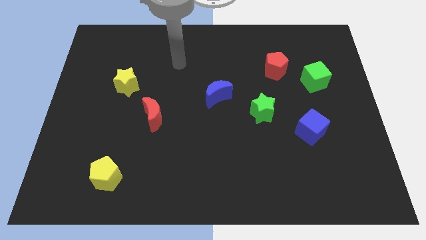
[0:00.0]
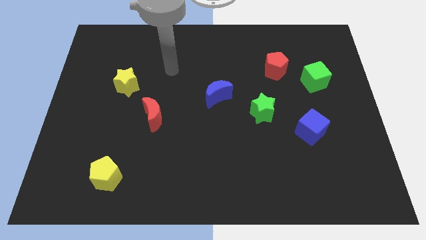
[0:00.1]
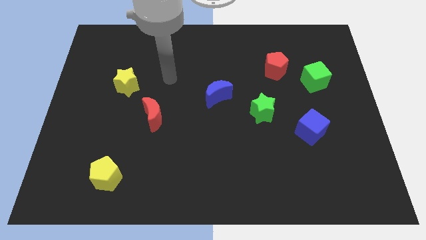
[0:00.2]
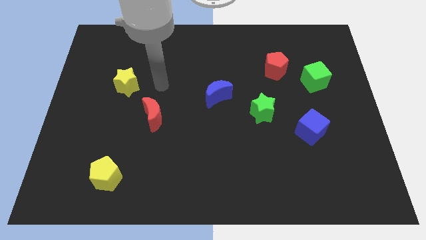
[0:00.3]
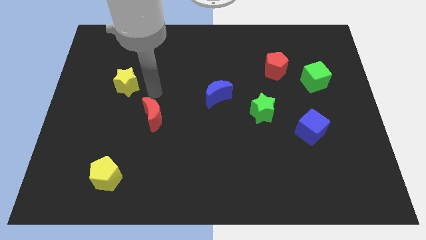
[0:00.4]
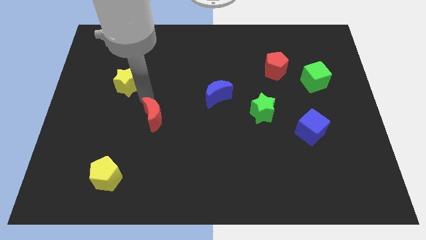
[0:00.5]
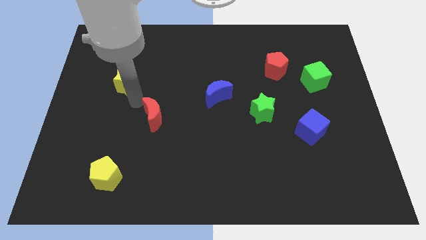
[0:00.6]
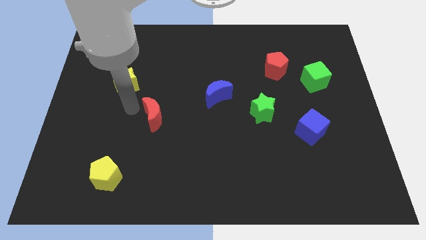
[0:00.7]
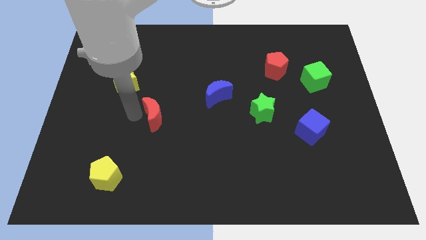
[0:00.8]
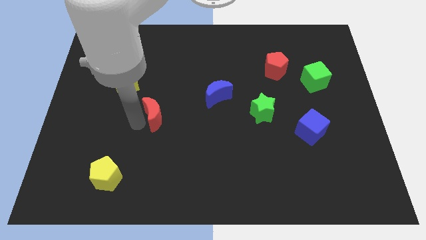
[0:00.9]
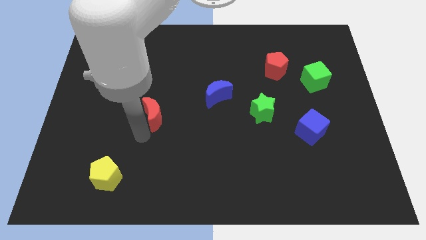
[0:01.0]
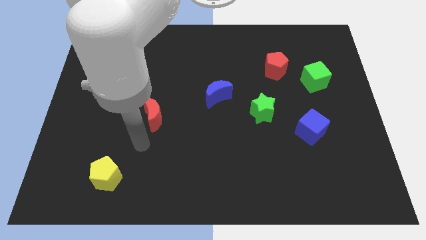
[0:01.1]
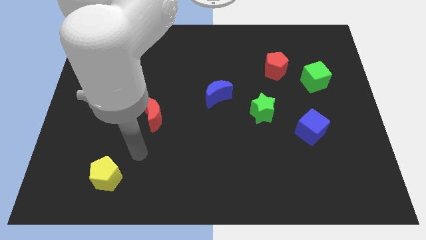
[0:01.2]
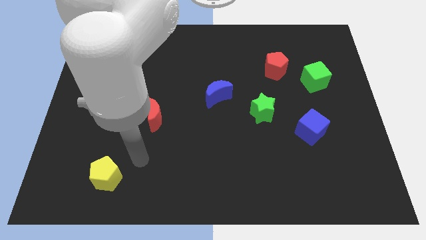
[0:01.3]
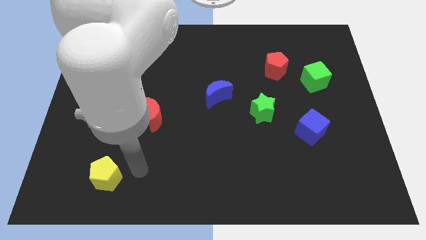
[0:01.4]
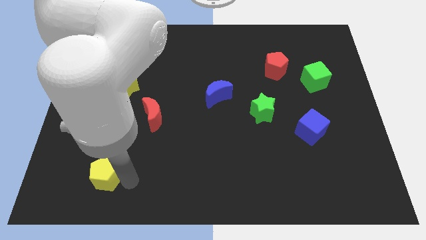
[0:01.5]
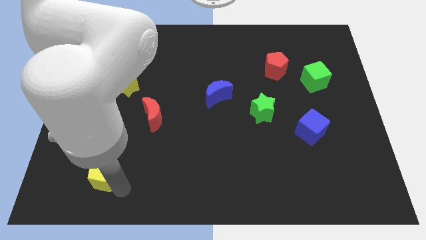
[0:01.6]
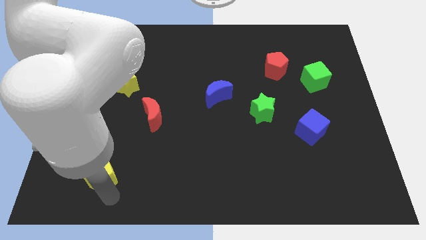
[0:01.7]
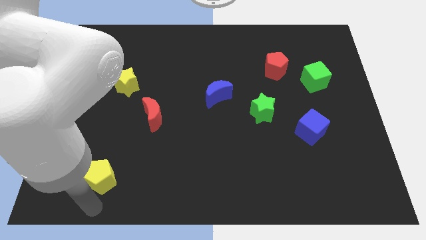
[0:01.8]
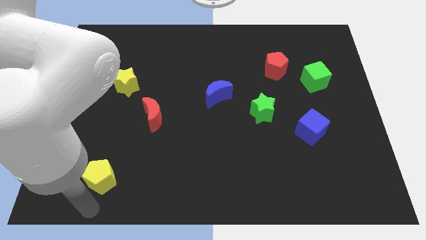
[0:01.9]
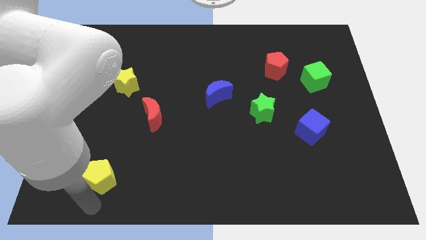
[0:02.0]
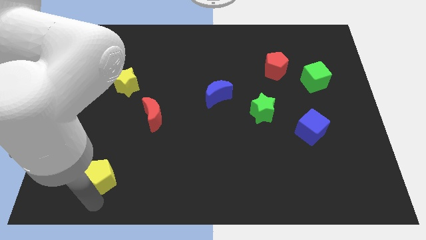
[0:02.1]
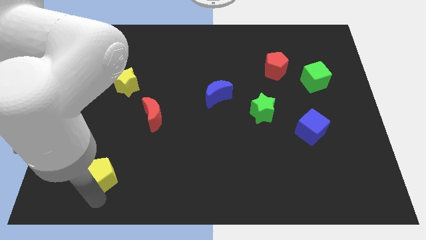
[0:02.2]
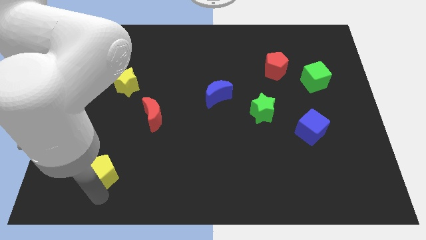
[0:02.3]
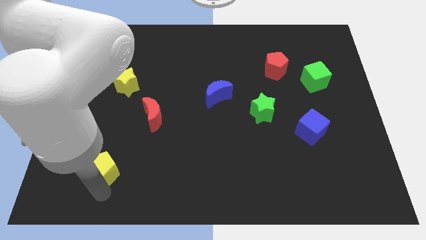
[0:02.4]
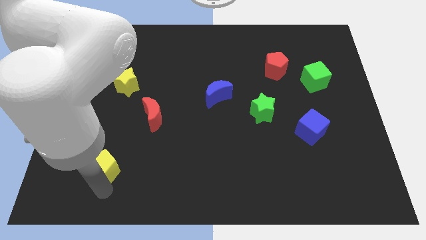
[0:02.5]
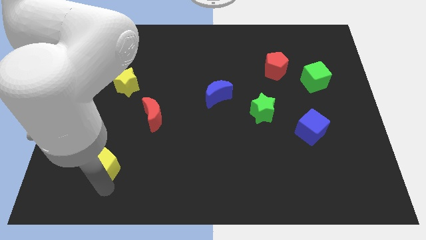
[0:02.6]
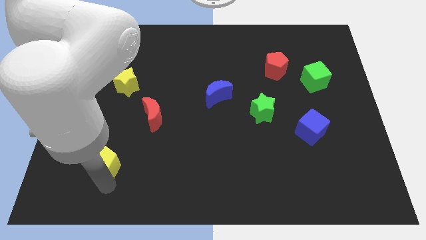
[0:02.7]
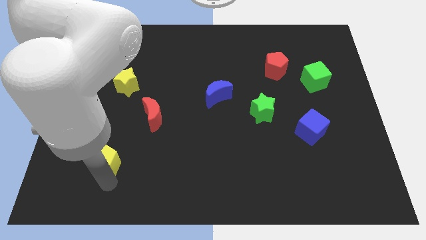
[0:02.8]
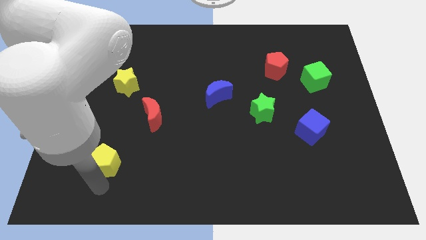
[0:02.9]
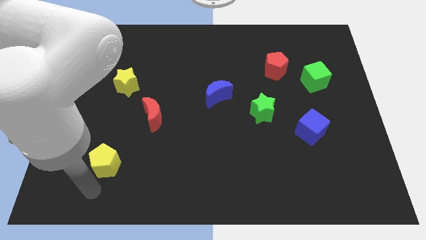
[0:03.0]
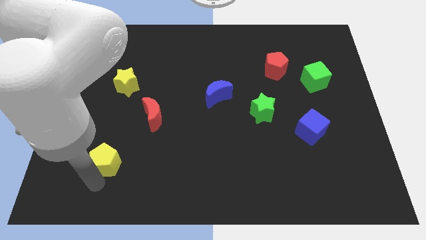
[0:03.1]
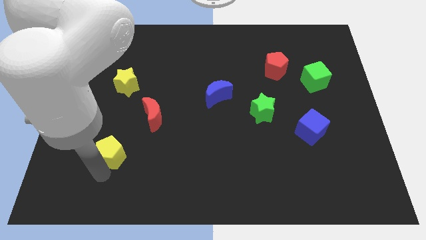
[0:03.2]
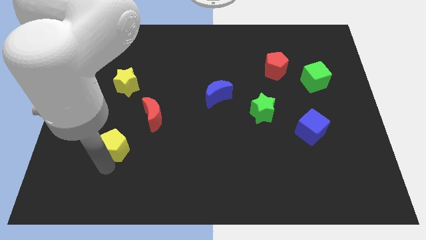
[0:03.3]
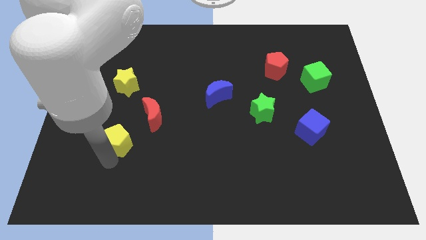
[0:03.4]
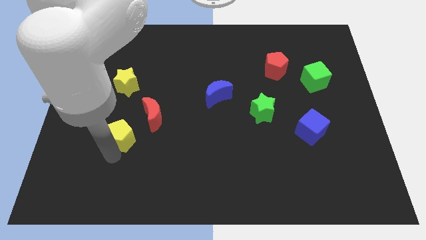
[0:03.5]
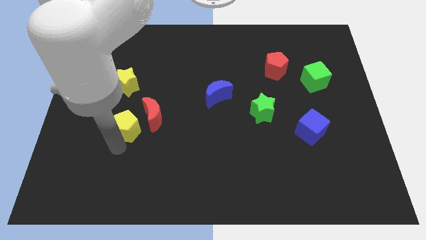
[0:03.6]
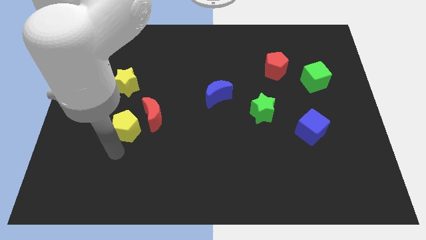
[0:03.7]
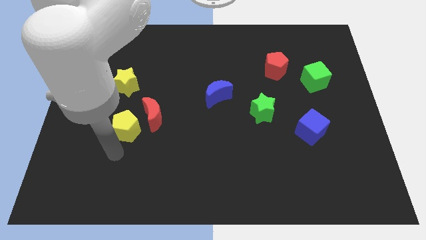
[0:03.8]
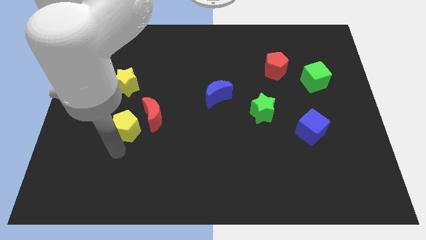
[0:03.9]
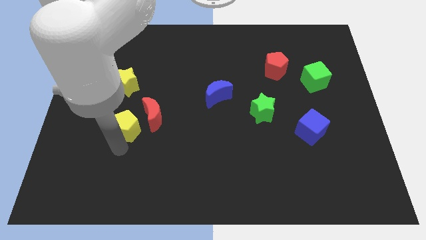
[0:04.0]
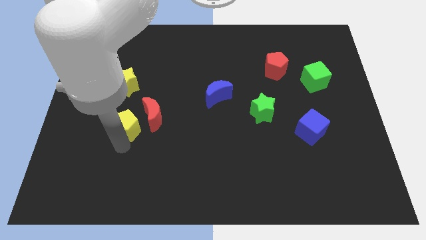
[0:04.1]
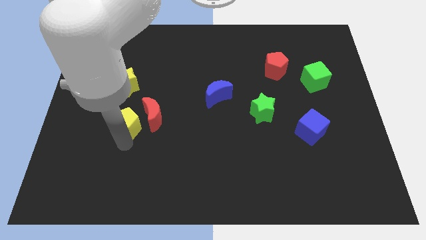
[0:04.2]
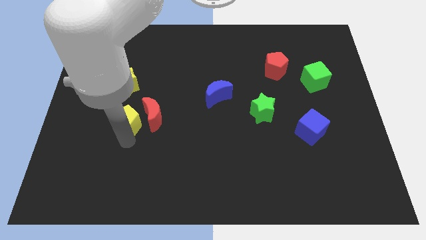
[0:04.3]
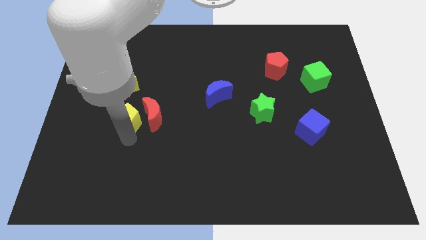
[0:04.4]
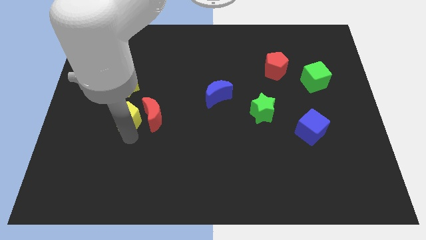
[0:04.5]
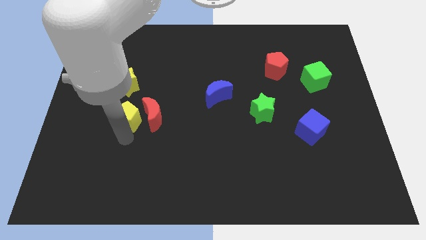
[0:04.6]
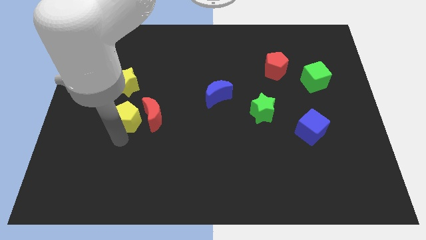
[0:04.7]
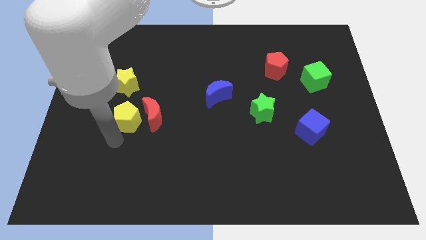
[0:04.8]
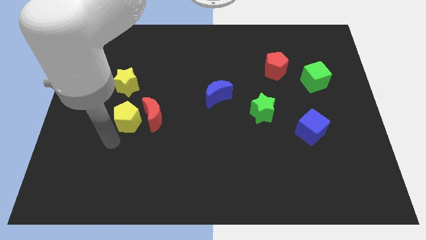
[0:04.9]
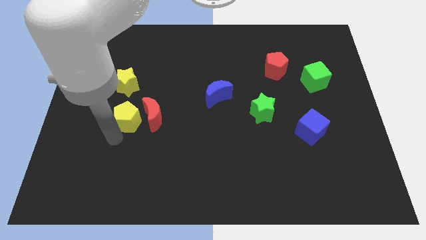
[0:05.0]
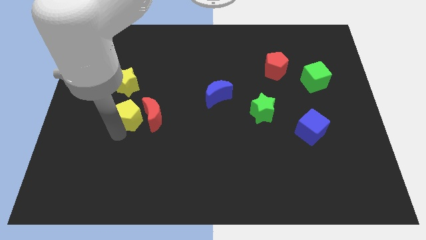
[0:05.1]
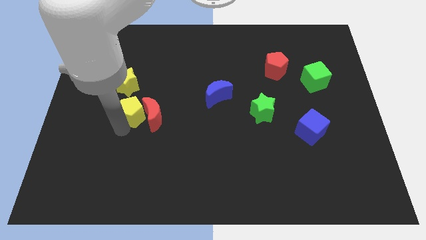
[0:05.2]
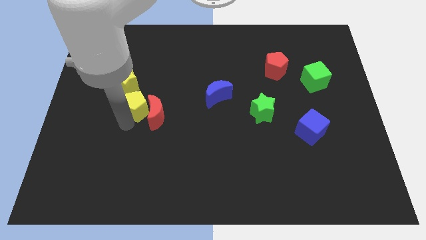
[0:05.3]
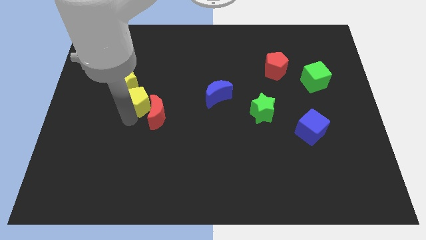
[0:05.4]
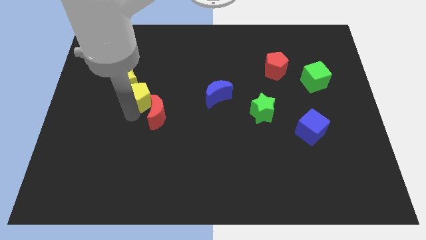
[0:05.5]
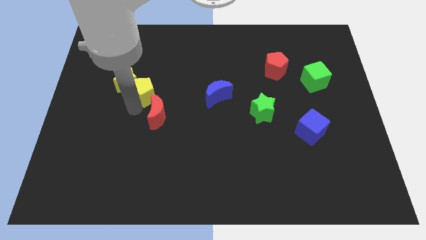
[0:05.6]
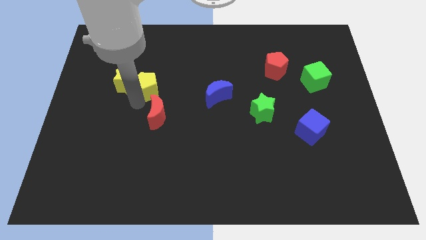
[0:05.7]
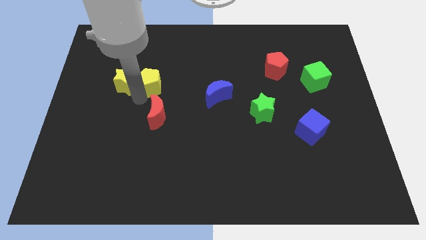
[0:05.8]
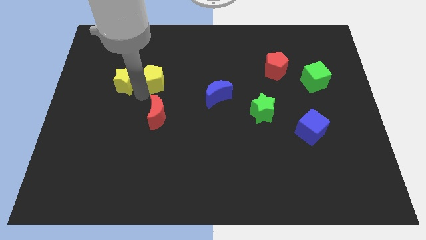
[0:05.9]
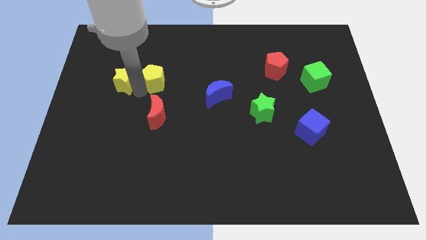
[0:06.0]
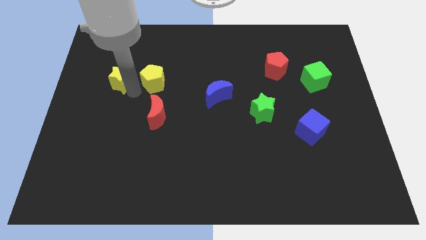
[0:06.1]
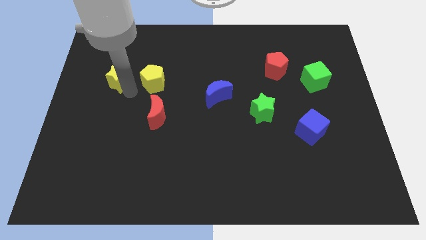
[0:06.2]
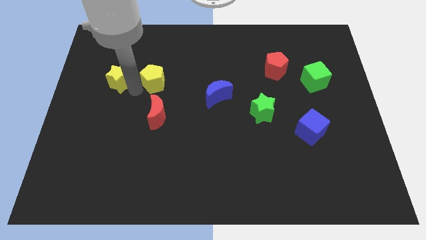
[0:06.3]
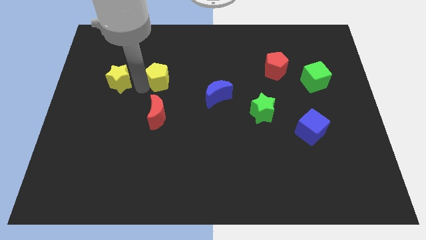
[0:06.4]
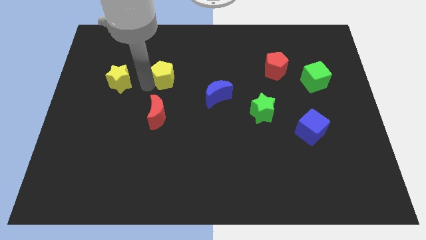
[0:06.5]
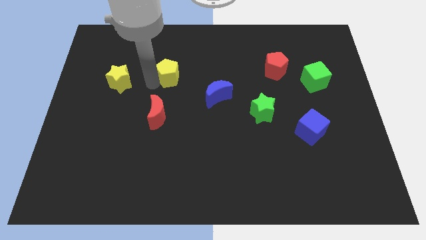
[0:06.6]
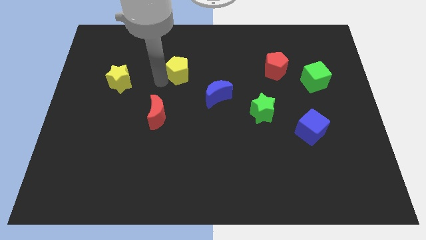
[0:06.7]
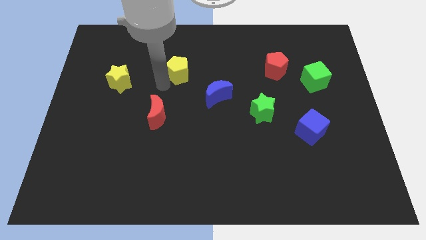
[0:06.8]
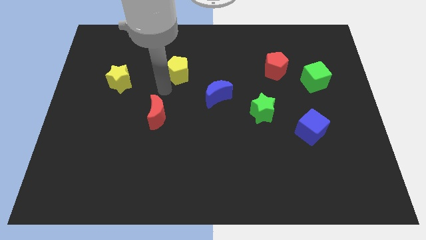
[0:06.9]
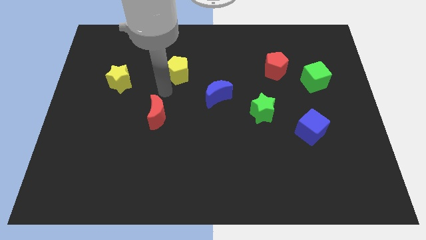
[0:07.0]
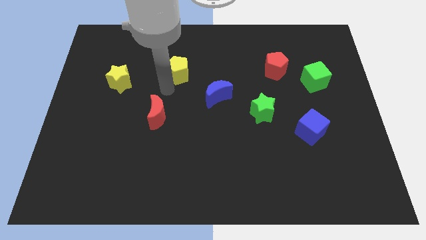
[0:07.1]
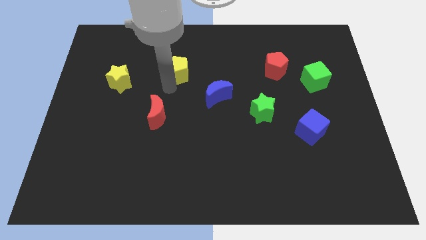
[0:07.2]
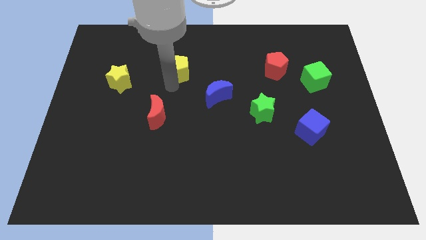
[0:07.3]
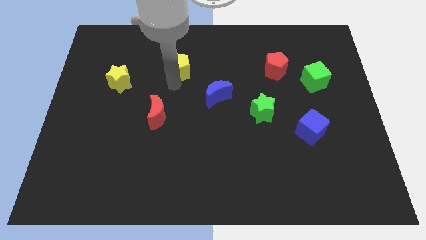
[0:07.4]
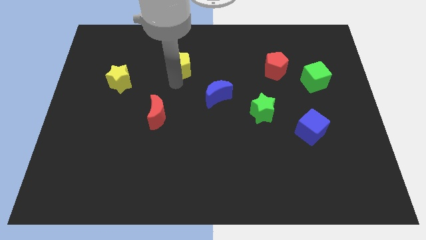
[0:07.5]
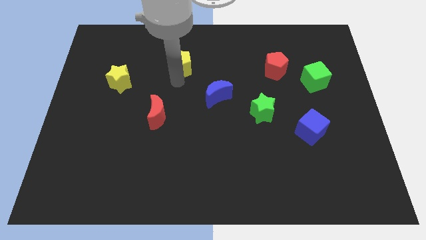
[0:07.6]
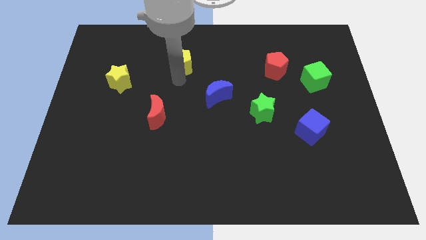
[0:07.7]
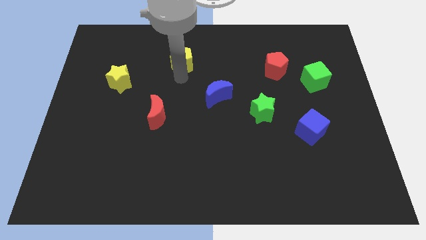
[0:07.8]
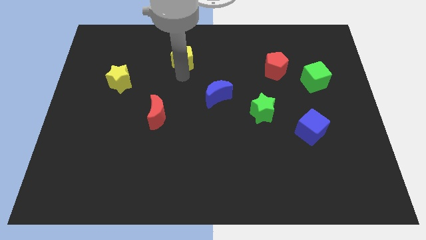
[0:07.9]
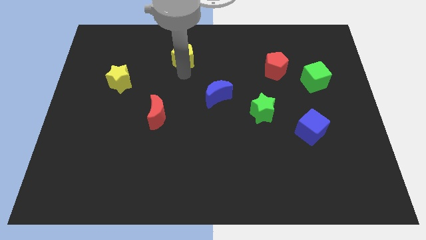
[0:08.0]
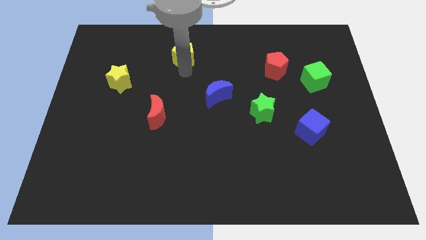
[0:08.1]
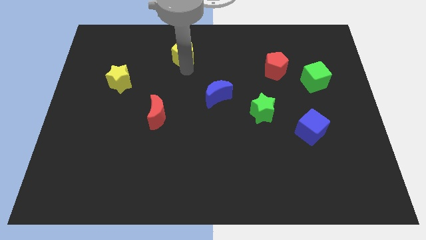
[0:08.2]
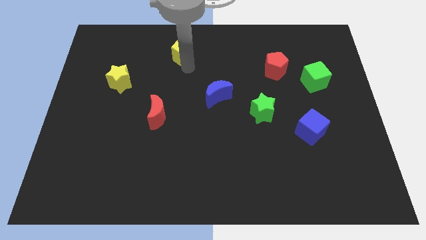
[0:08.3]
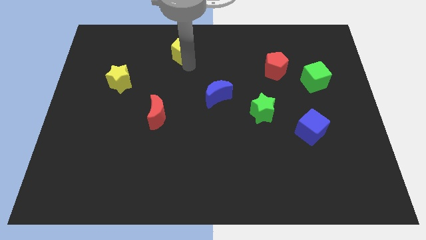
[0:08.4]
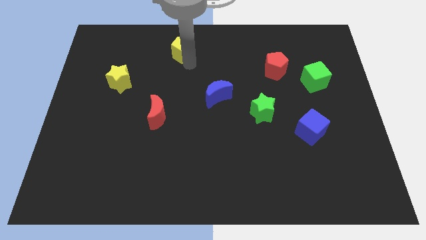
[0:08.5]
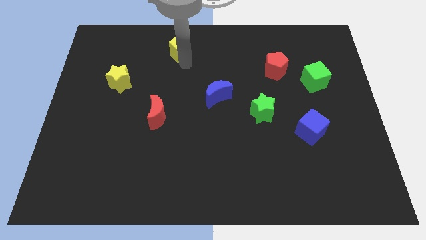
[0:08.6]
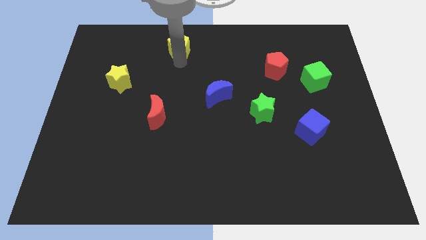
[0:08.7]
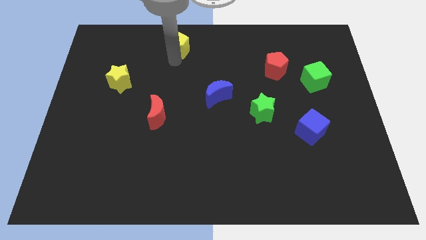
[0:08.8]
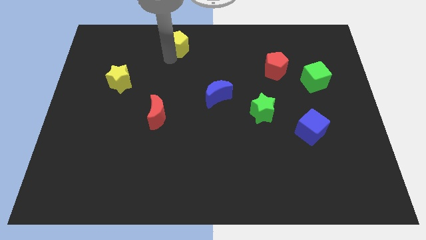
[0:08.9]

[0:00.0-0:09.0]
put the yellow pentagon to the top side
